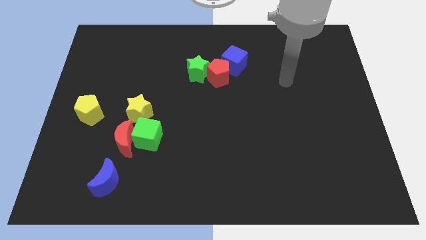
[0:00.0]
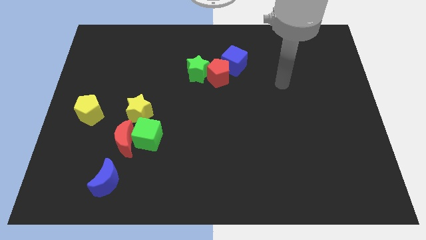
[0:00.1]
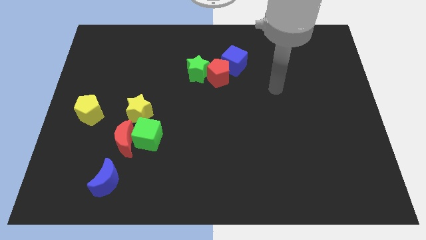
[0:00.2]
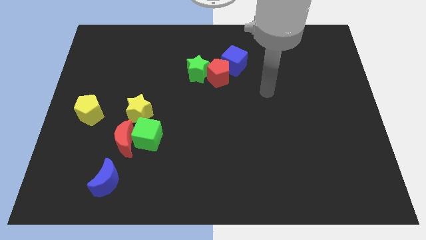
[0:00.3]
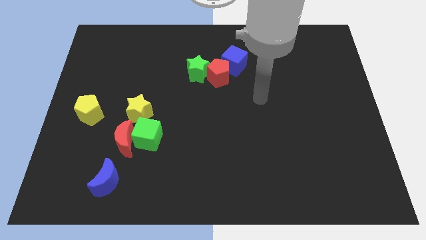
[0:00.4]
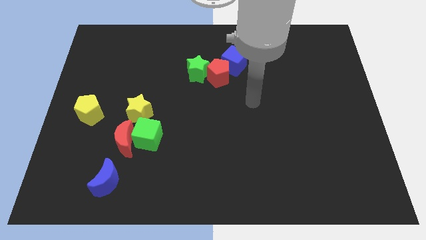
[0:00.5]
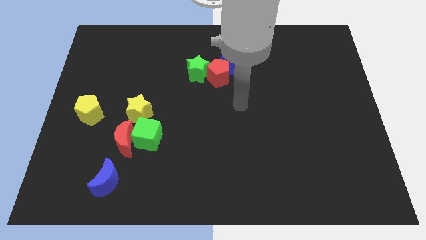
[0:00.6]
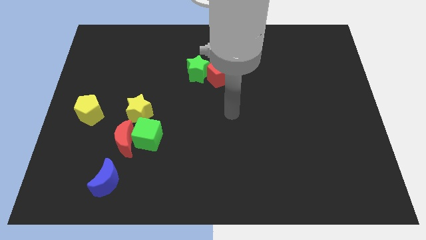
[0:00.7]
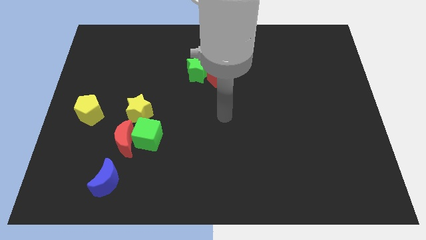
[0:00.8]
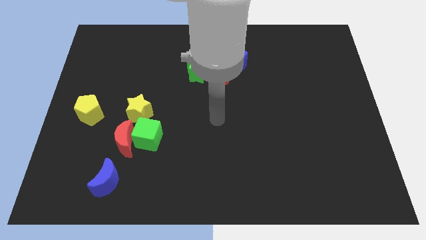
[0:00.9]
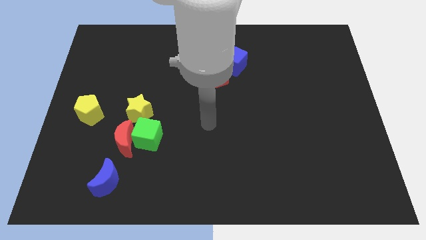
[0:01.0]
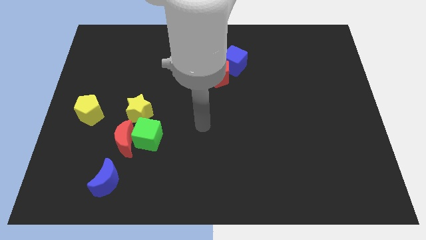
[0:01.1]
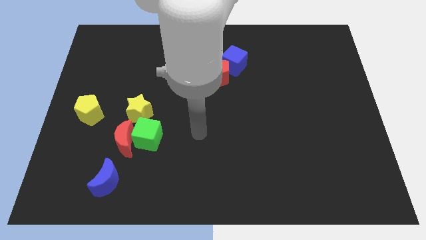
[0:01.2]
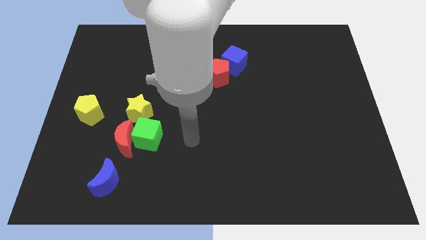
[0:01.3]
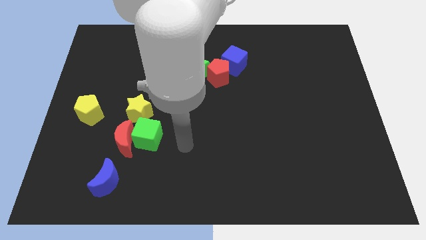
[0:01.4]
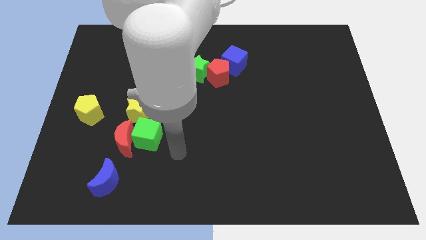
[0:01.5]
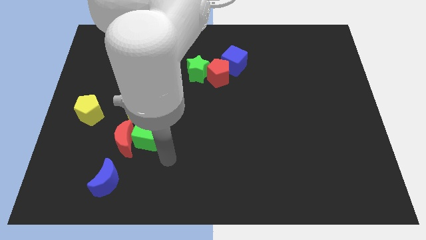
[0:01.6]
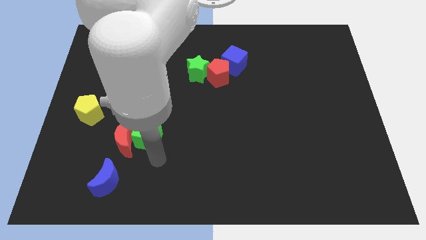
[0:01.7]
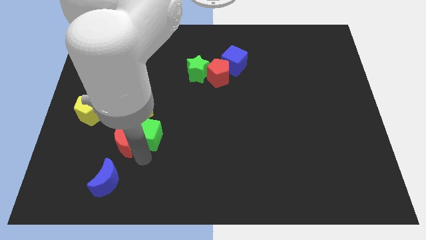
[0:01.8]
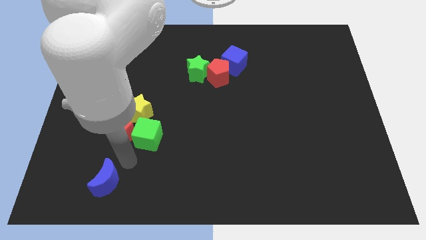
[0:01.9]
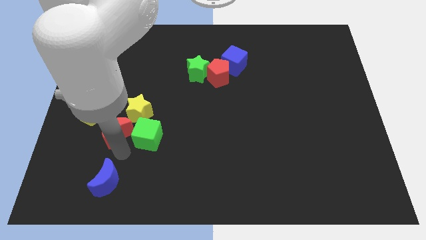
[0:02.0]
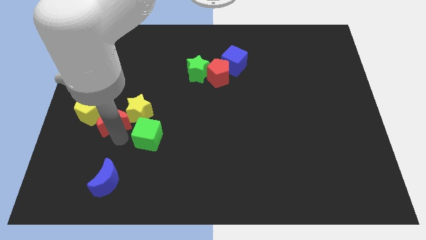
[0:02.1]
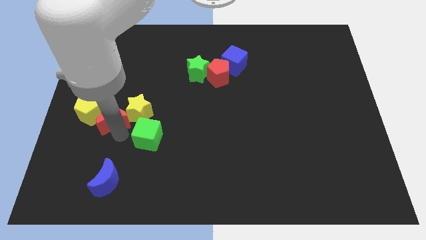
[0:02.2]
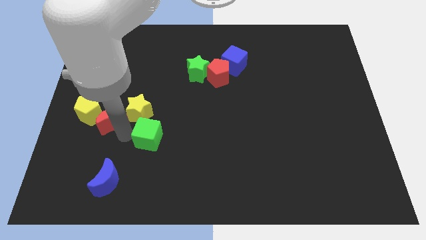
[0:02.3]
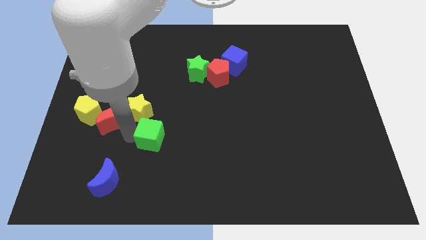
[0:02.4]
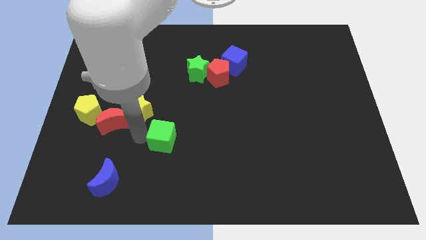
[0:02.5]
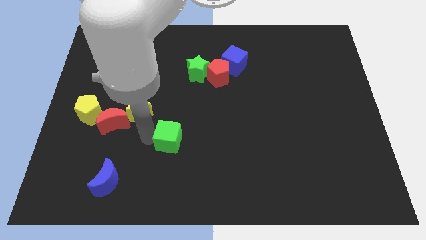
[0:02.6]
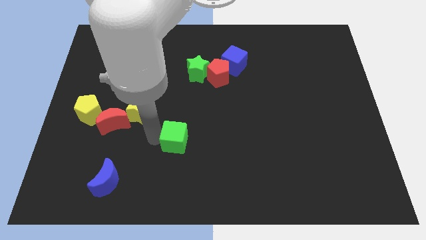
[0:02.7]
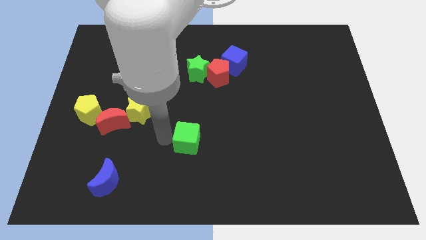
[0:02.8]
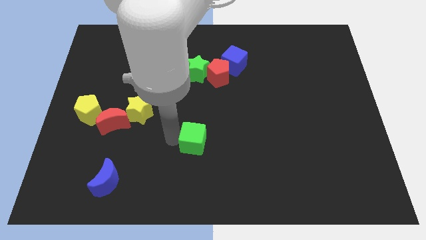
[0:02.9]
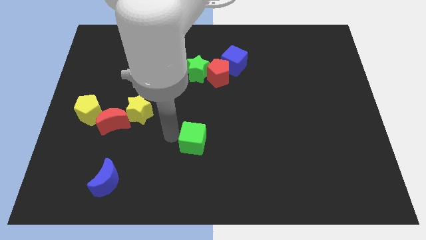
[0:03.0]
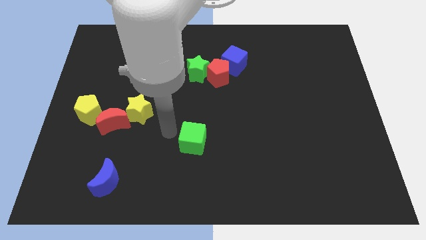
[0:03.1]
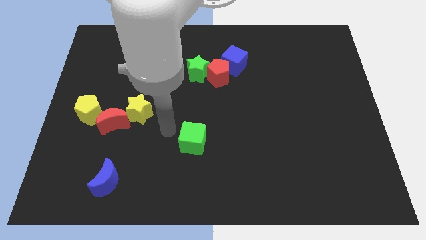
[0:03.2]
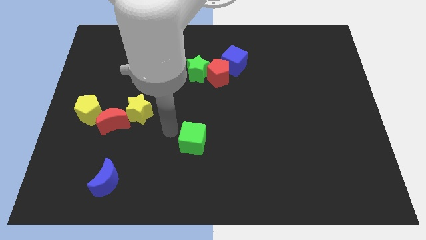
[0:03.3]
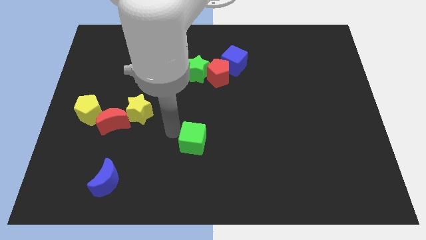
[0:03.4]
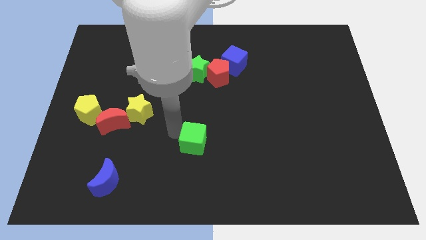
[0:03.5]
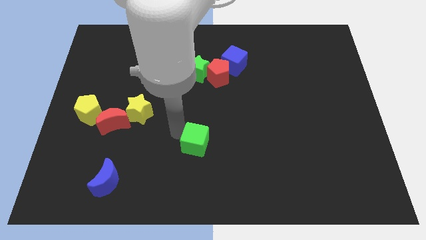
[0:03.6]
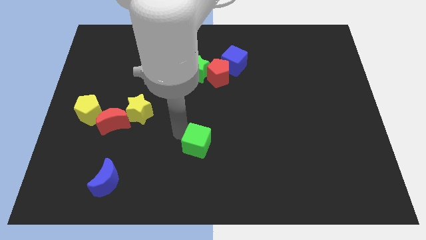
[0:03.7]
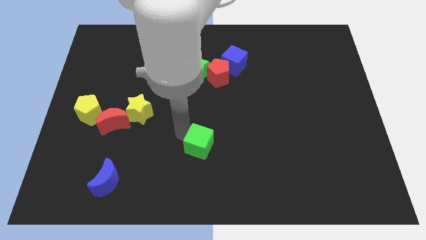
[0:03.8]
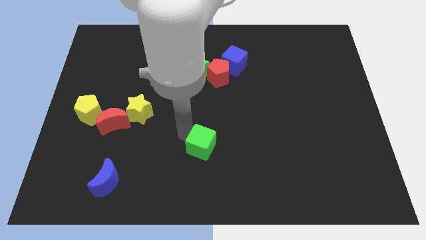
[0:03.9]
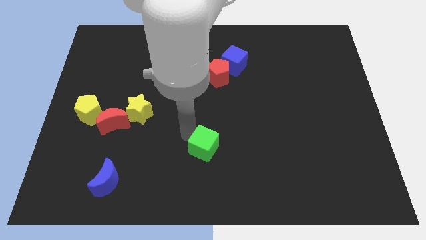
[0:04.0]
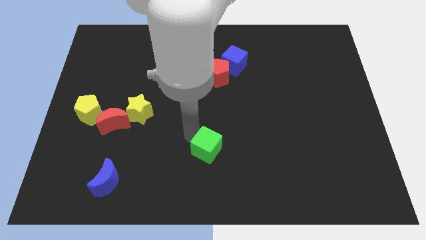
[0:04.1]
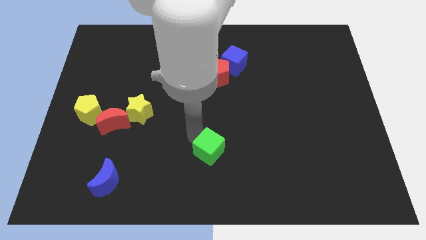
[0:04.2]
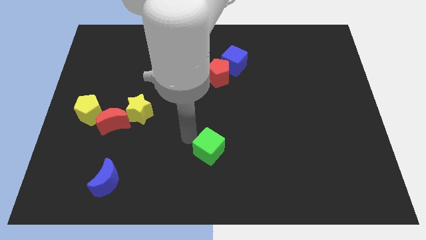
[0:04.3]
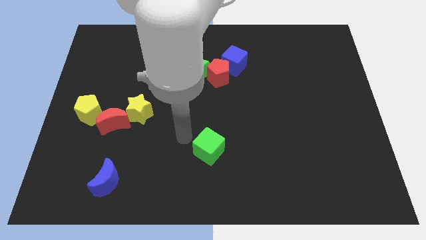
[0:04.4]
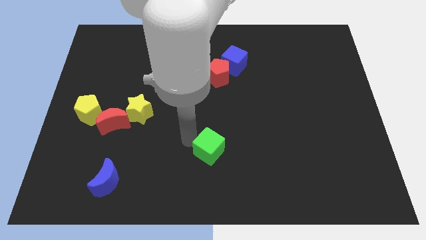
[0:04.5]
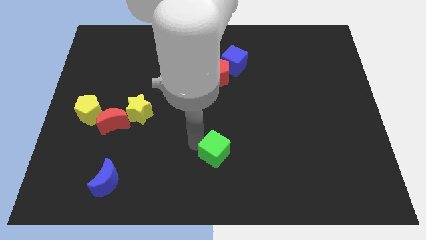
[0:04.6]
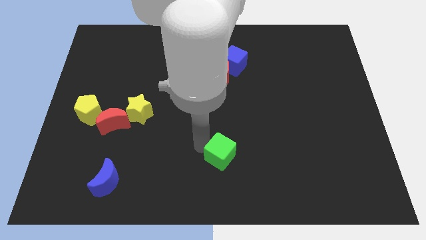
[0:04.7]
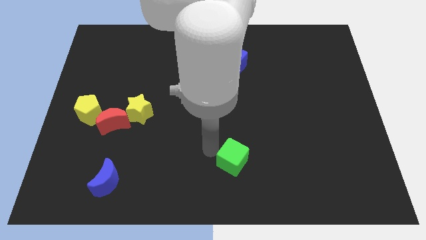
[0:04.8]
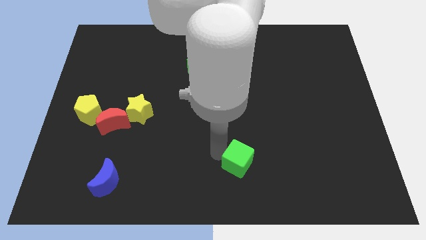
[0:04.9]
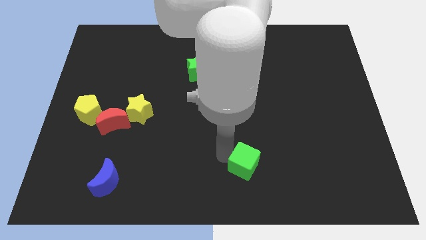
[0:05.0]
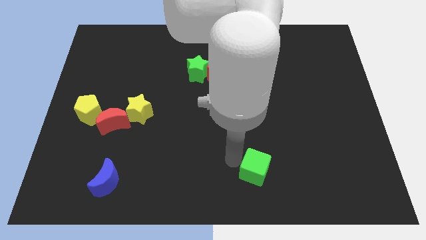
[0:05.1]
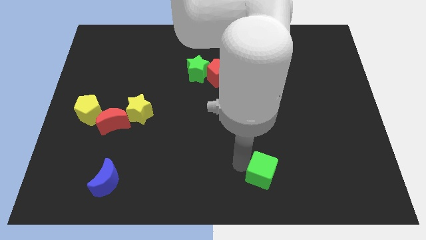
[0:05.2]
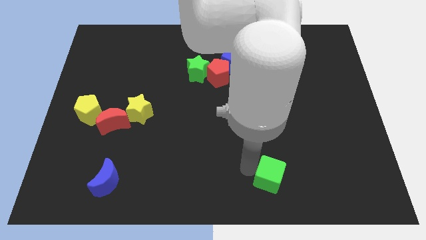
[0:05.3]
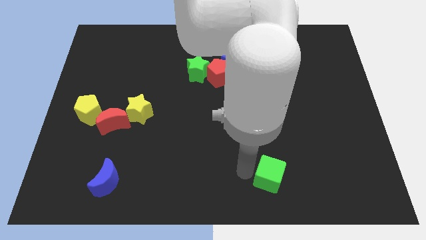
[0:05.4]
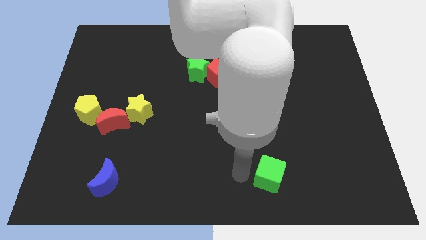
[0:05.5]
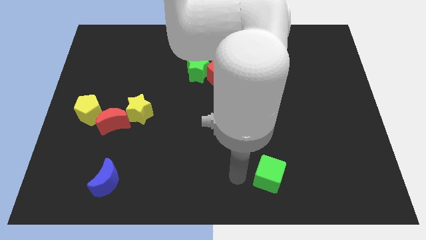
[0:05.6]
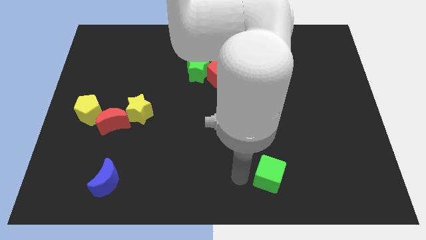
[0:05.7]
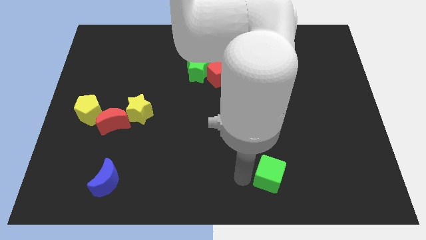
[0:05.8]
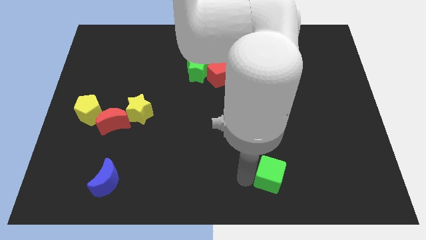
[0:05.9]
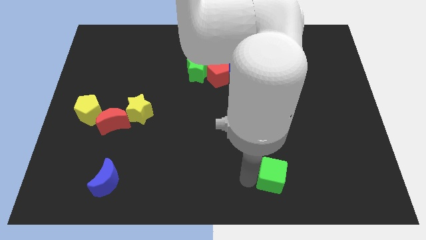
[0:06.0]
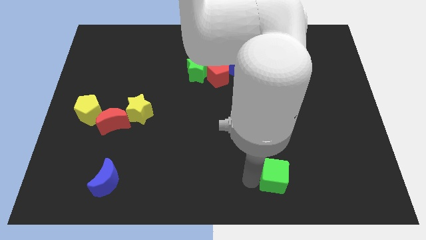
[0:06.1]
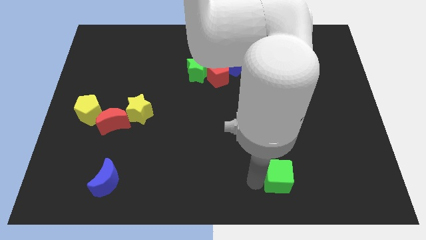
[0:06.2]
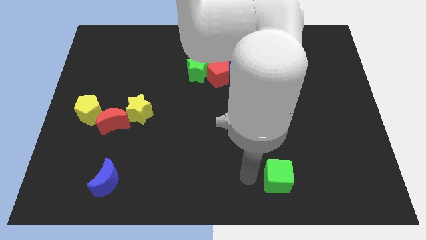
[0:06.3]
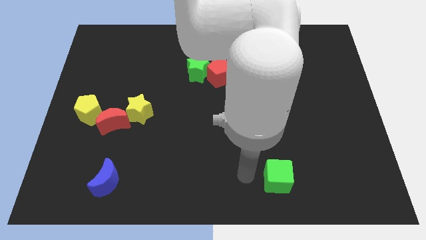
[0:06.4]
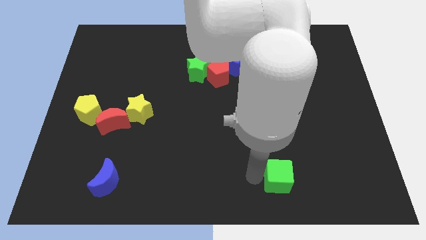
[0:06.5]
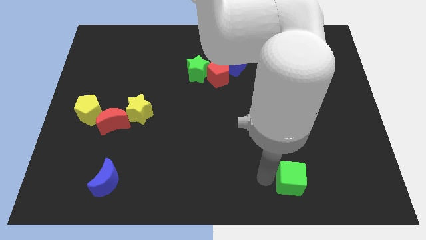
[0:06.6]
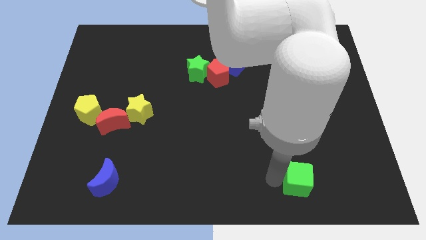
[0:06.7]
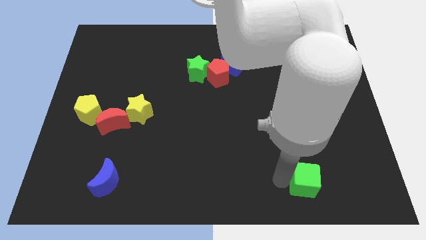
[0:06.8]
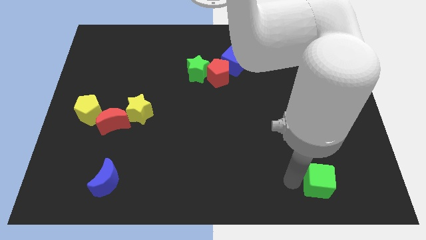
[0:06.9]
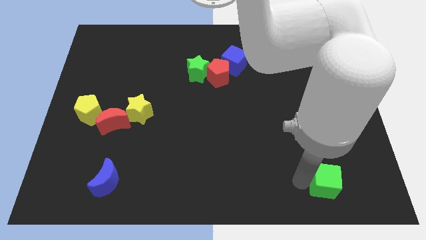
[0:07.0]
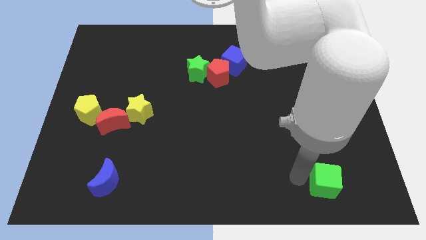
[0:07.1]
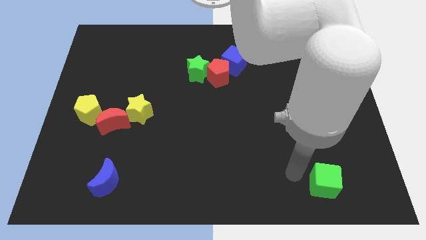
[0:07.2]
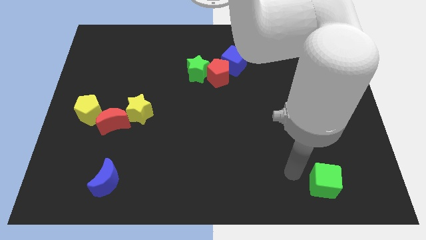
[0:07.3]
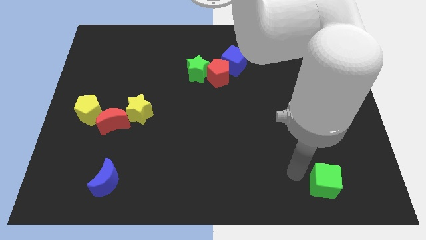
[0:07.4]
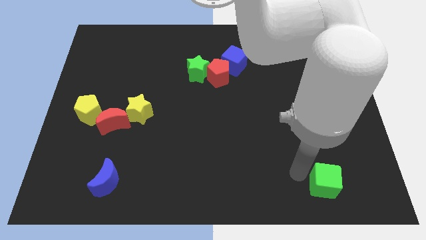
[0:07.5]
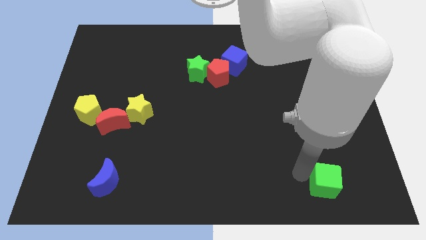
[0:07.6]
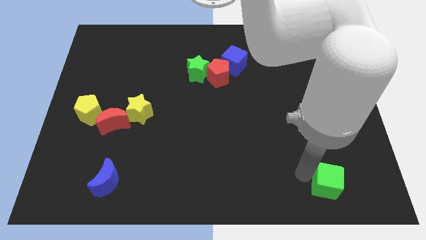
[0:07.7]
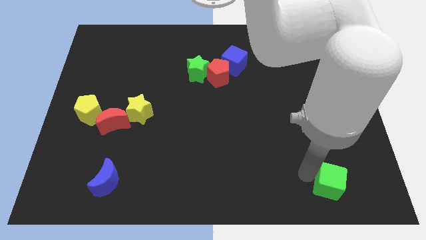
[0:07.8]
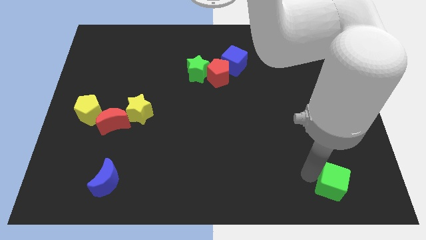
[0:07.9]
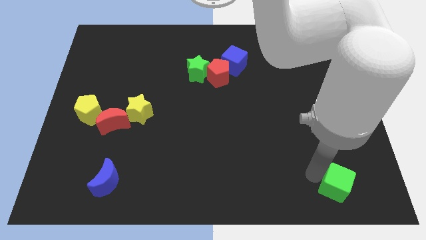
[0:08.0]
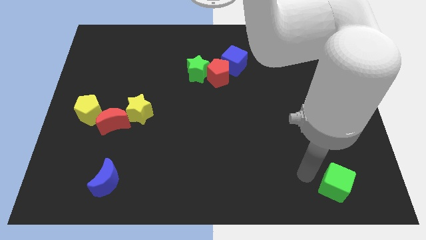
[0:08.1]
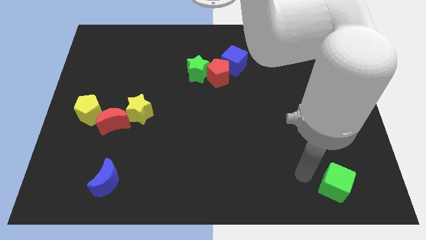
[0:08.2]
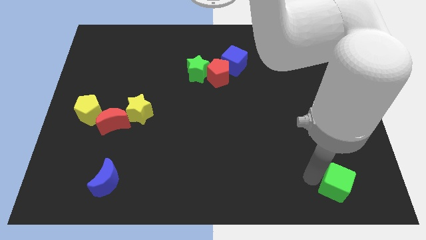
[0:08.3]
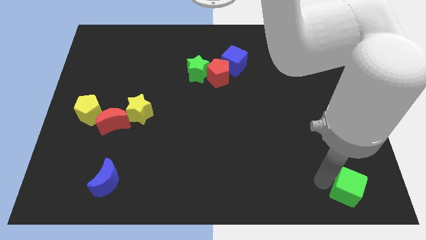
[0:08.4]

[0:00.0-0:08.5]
slide the green cube to the bottom right of the board
